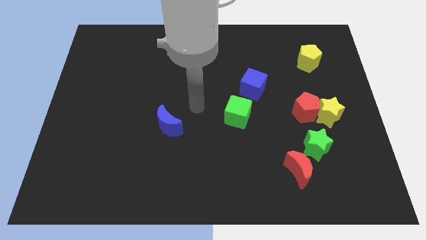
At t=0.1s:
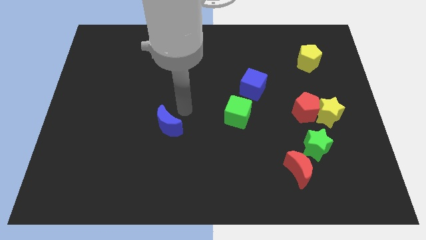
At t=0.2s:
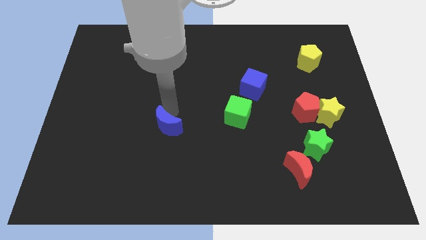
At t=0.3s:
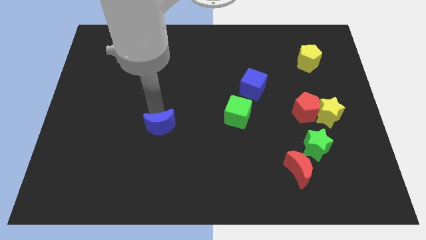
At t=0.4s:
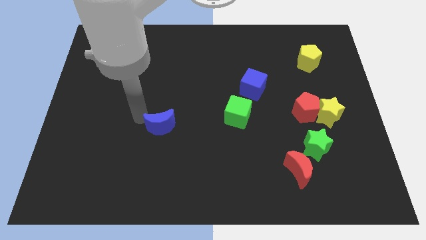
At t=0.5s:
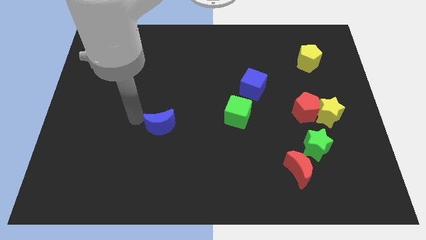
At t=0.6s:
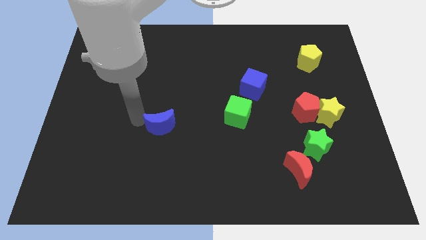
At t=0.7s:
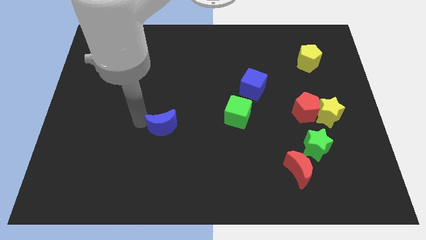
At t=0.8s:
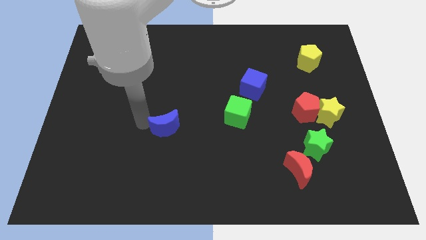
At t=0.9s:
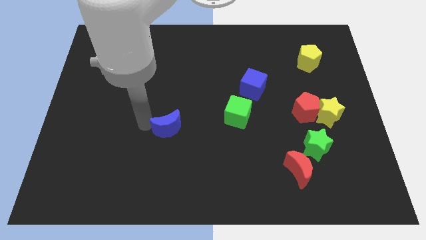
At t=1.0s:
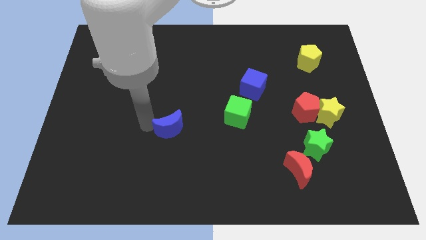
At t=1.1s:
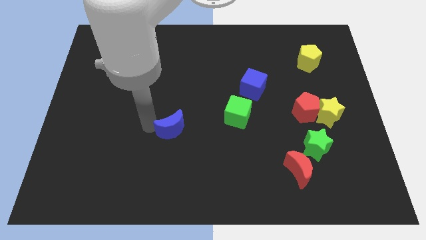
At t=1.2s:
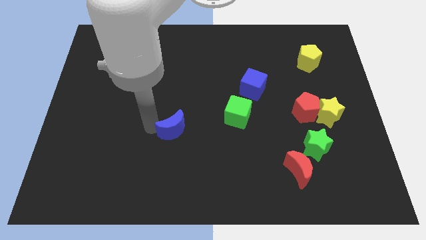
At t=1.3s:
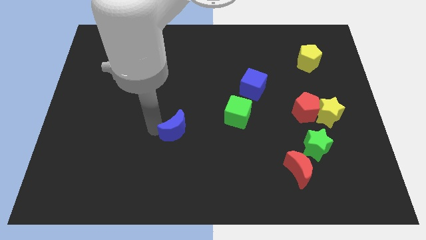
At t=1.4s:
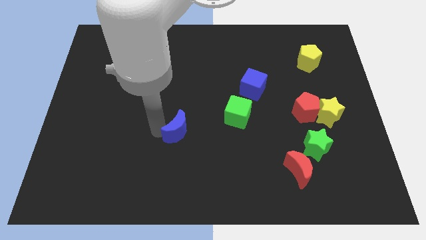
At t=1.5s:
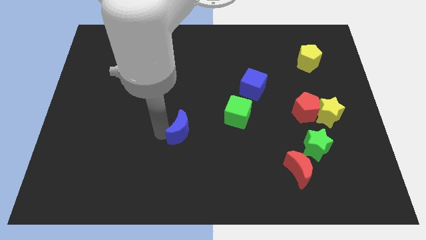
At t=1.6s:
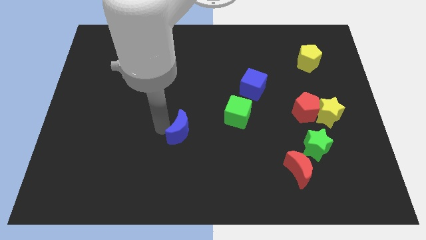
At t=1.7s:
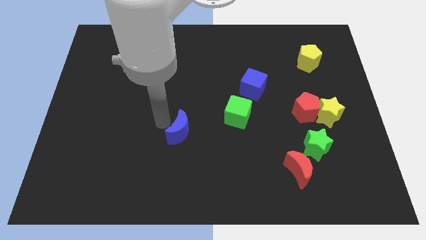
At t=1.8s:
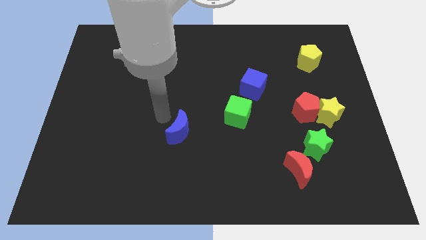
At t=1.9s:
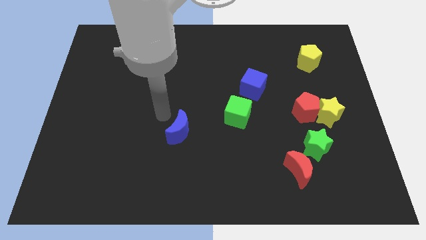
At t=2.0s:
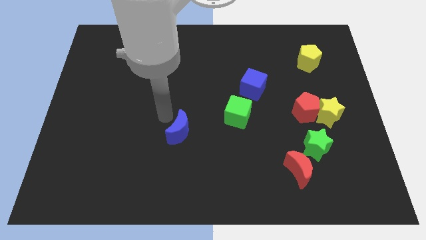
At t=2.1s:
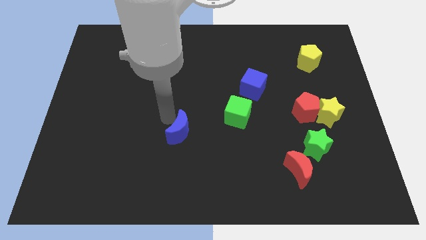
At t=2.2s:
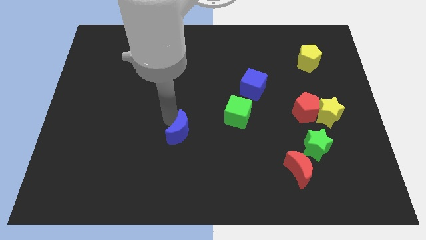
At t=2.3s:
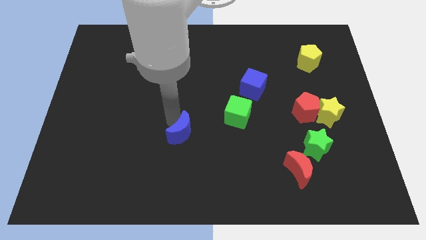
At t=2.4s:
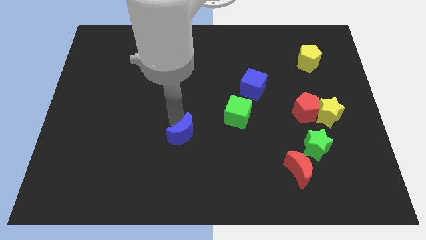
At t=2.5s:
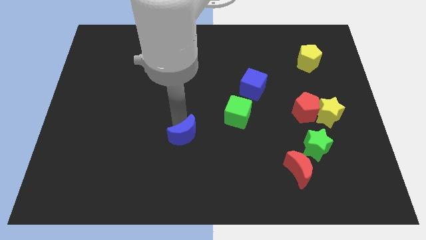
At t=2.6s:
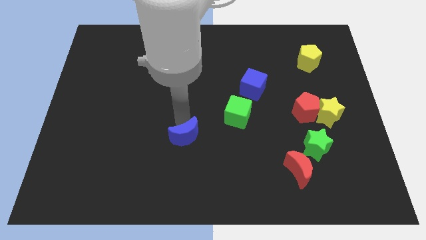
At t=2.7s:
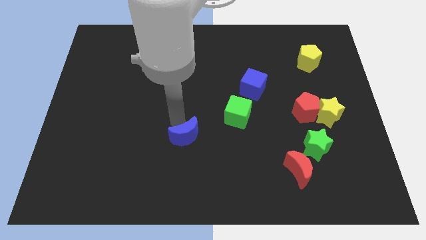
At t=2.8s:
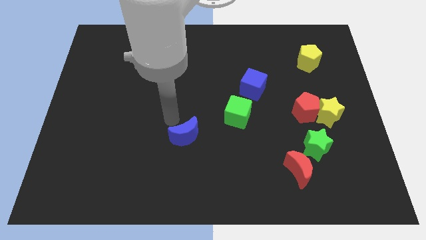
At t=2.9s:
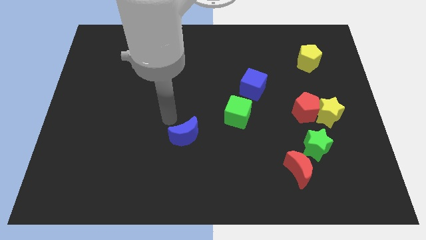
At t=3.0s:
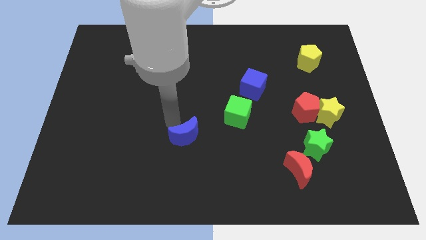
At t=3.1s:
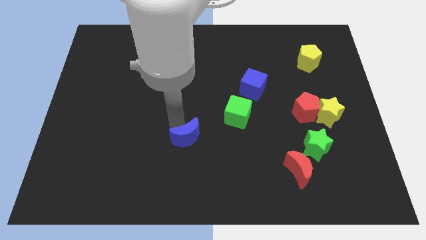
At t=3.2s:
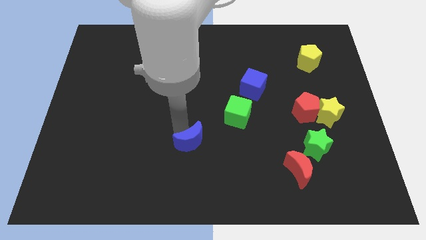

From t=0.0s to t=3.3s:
slightly slide the blue moon down and right diagonally

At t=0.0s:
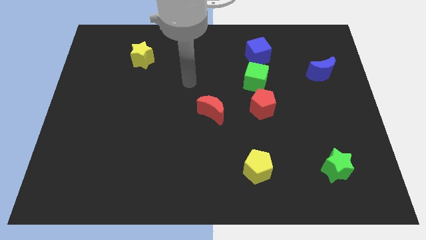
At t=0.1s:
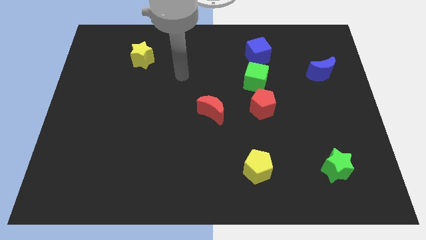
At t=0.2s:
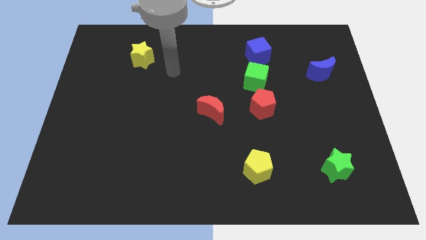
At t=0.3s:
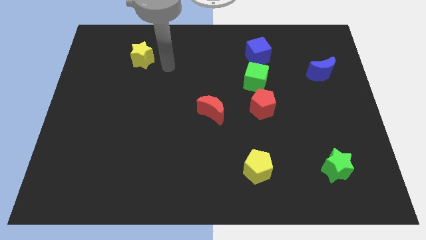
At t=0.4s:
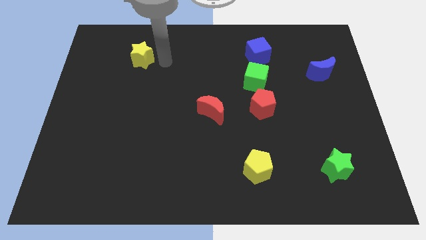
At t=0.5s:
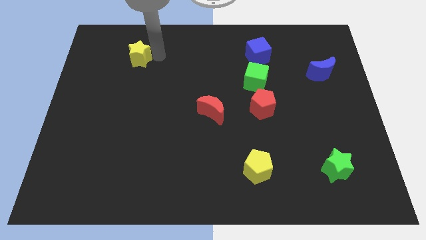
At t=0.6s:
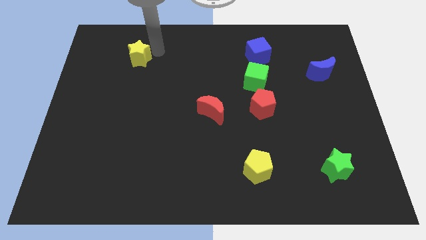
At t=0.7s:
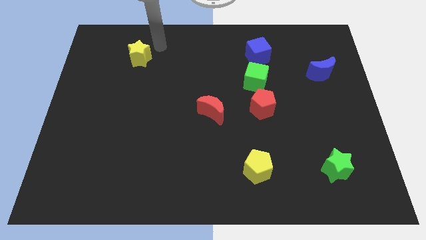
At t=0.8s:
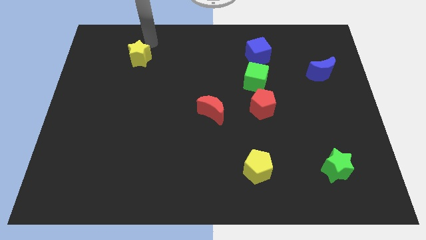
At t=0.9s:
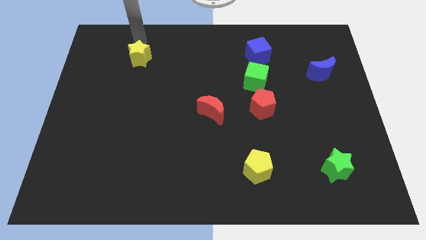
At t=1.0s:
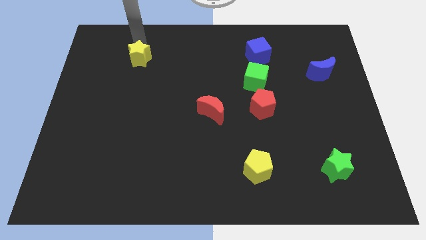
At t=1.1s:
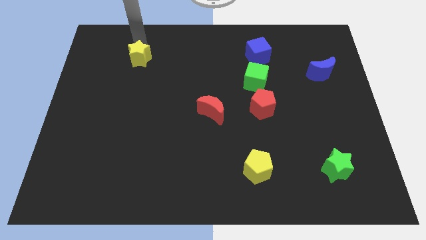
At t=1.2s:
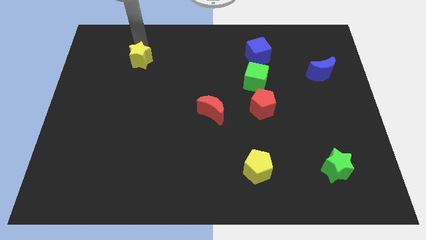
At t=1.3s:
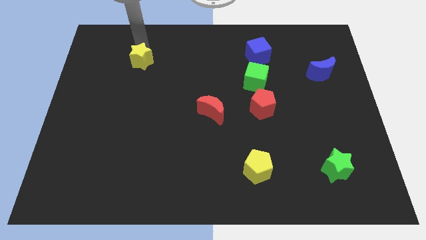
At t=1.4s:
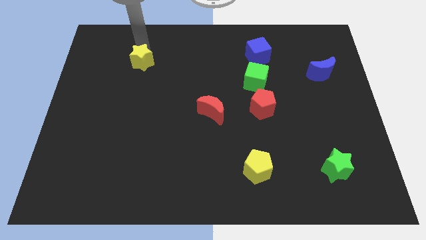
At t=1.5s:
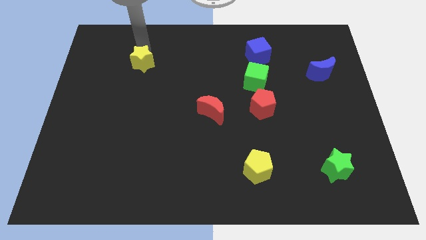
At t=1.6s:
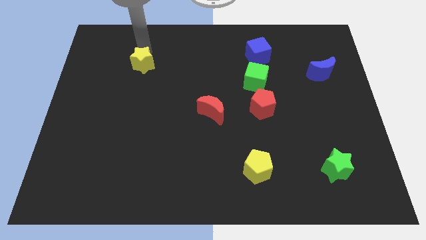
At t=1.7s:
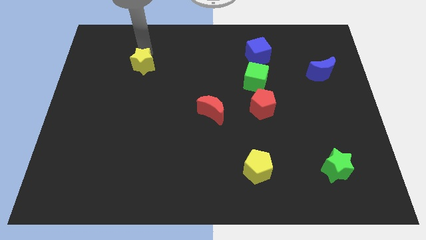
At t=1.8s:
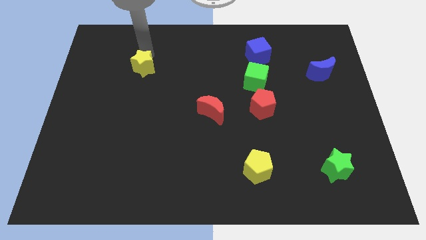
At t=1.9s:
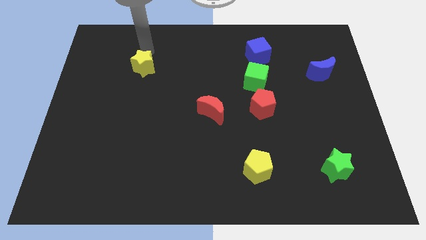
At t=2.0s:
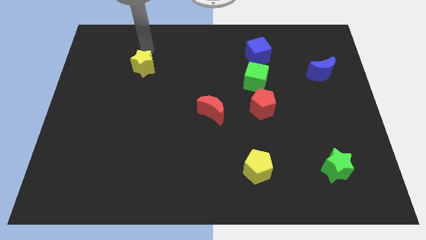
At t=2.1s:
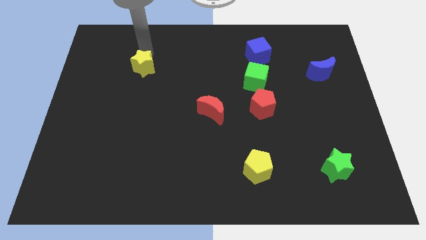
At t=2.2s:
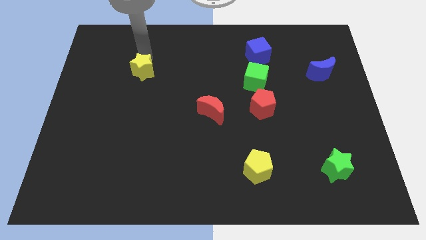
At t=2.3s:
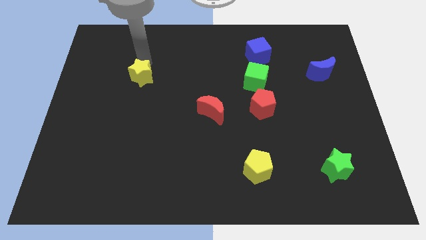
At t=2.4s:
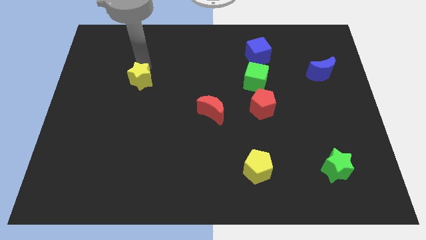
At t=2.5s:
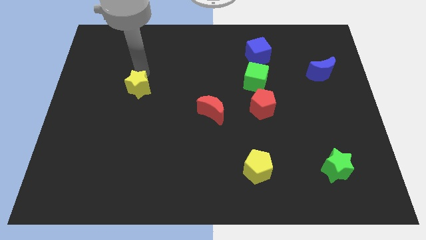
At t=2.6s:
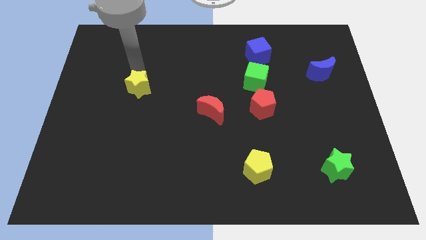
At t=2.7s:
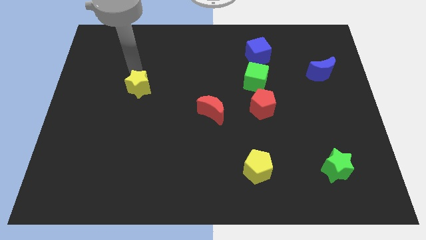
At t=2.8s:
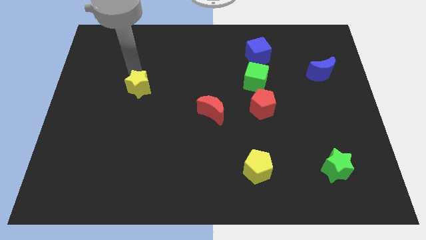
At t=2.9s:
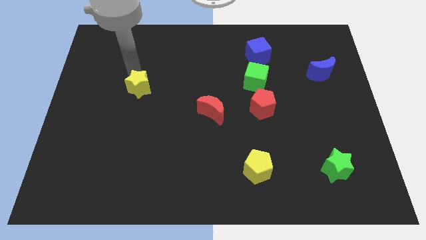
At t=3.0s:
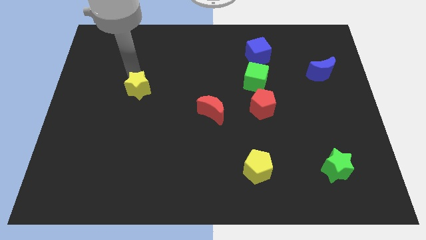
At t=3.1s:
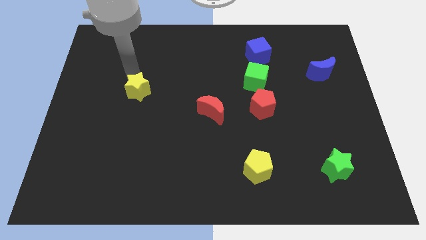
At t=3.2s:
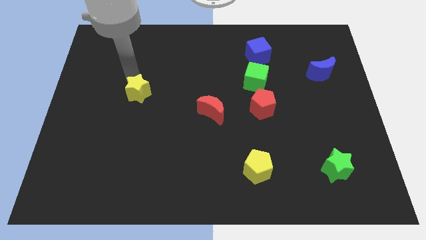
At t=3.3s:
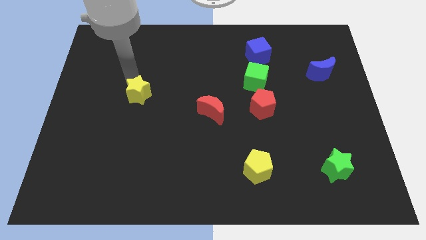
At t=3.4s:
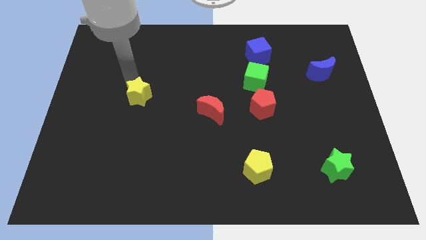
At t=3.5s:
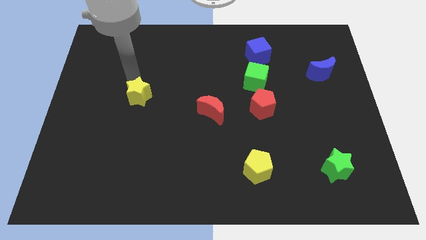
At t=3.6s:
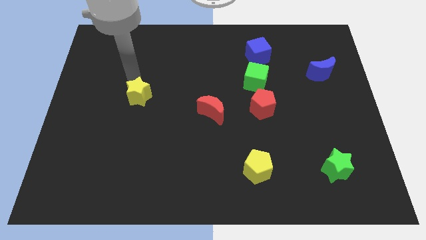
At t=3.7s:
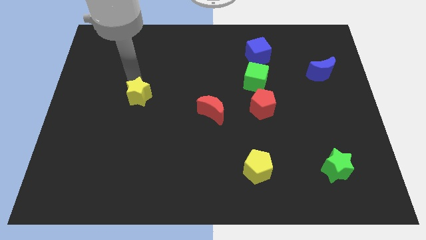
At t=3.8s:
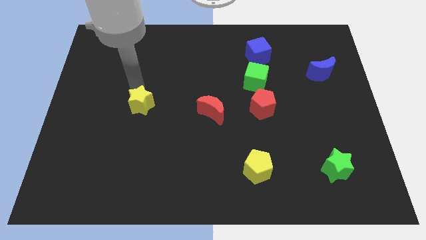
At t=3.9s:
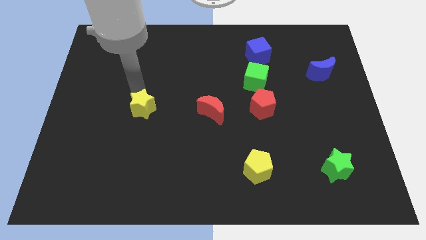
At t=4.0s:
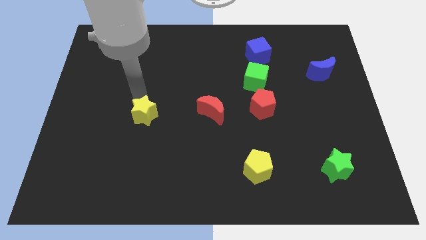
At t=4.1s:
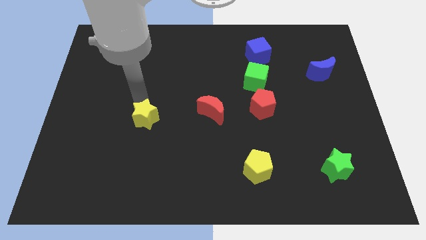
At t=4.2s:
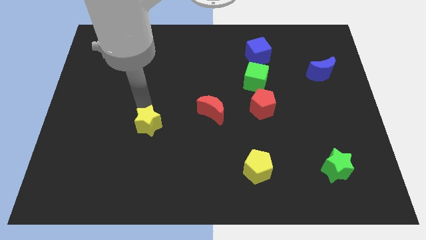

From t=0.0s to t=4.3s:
move the yellow star downwards

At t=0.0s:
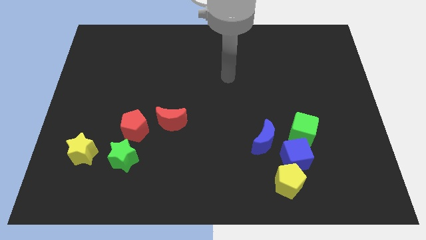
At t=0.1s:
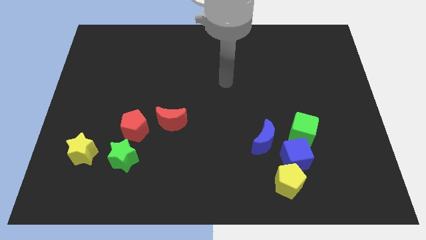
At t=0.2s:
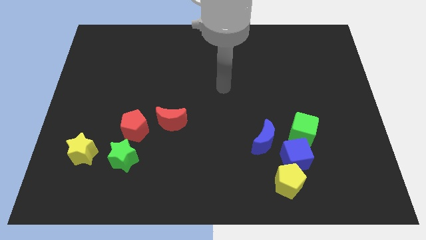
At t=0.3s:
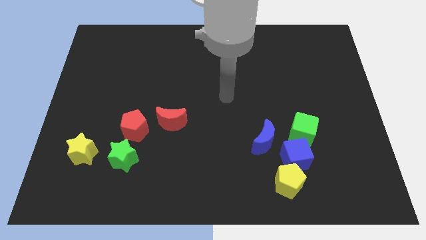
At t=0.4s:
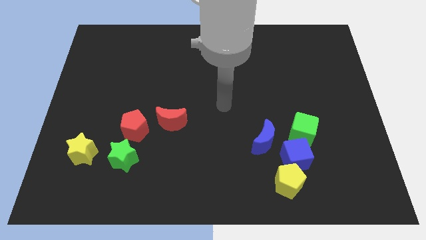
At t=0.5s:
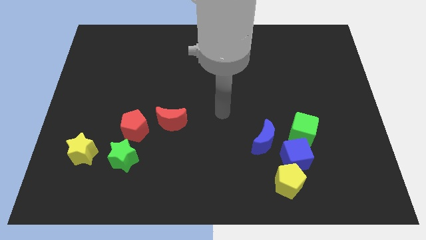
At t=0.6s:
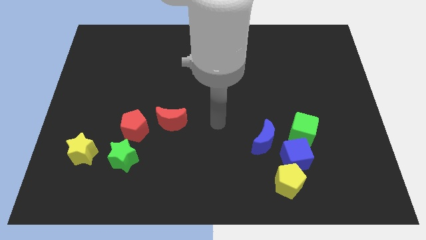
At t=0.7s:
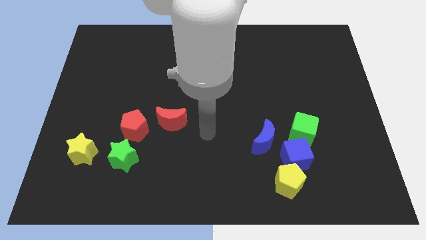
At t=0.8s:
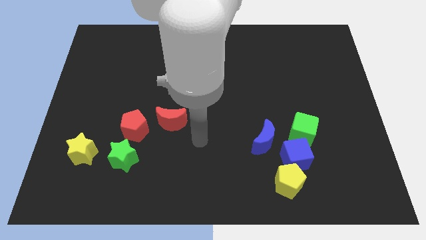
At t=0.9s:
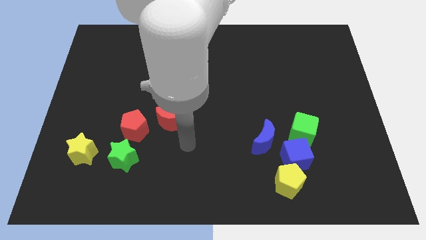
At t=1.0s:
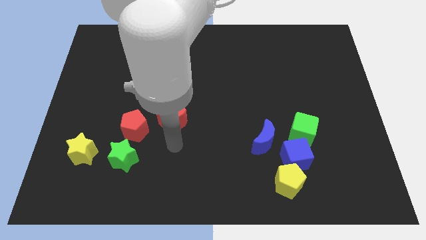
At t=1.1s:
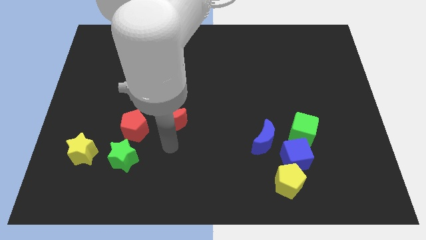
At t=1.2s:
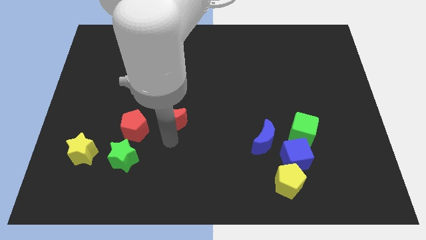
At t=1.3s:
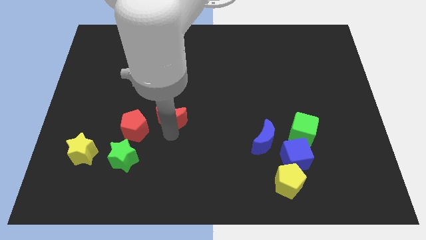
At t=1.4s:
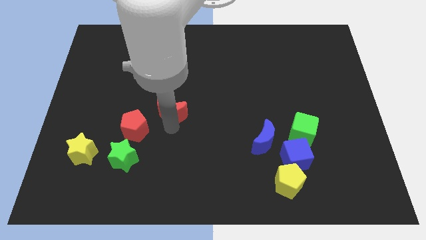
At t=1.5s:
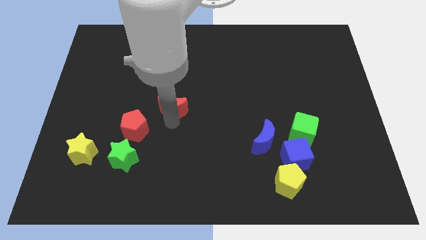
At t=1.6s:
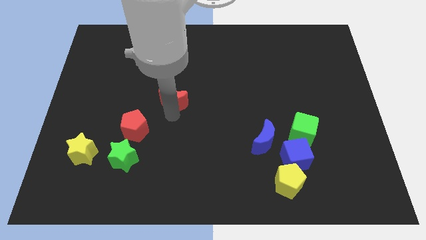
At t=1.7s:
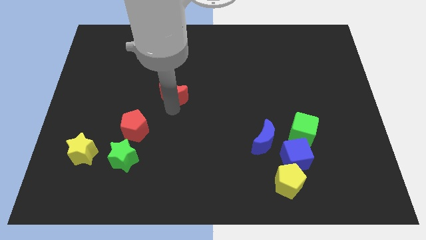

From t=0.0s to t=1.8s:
slightly move the red moon upwards
